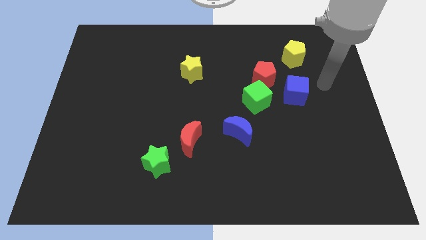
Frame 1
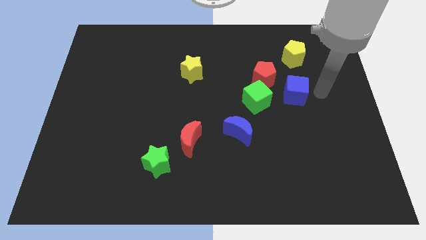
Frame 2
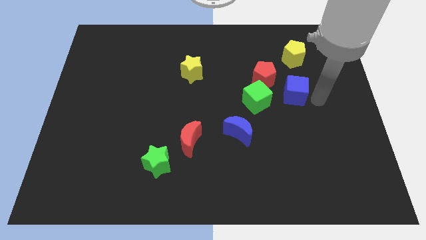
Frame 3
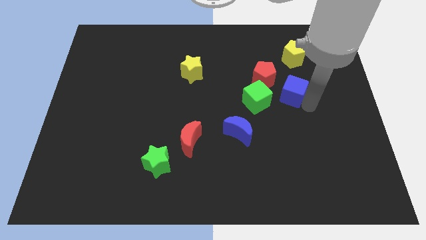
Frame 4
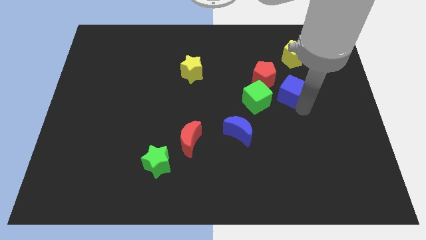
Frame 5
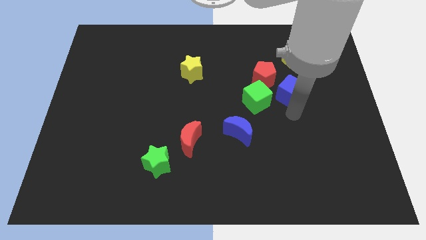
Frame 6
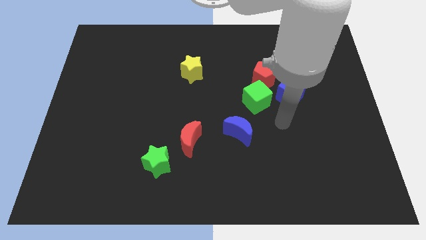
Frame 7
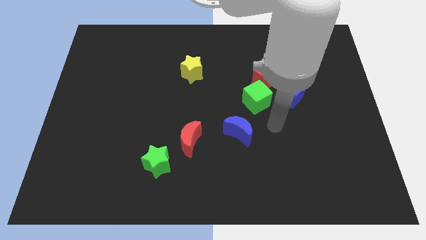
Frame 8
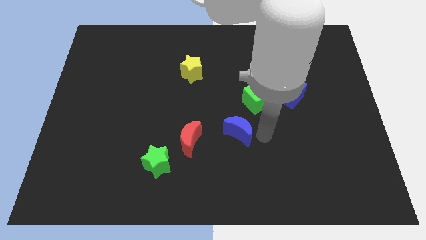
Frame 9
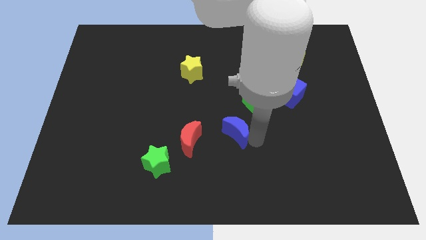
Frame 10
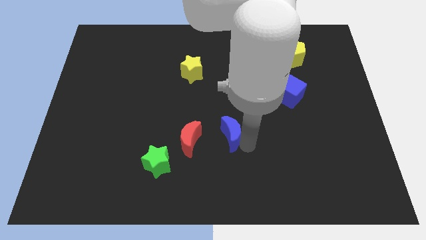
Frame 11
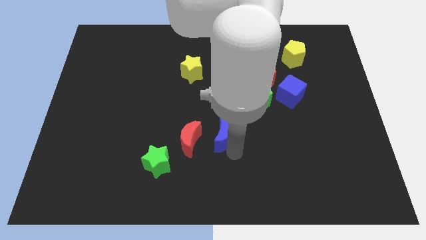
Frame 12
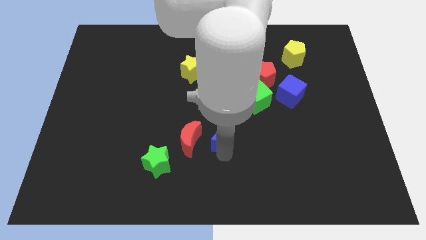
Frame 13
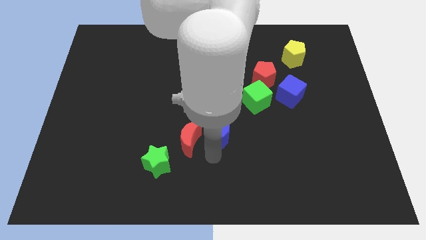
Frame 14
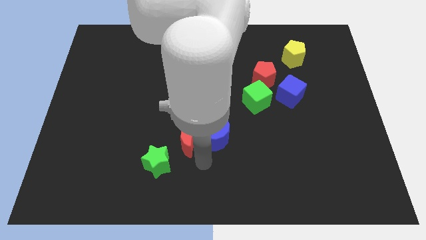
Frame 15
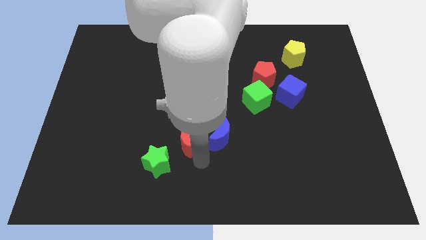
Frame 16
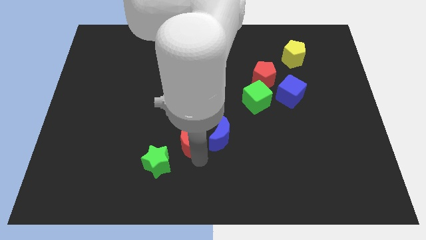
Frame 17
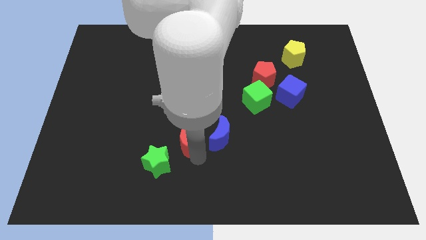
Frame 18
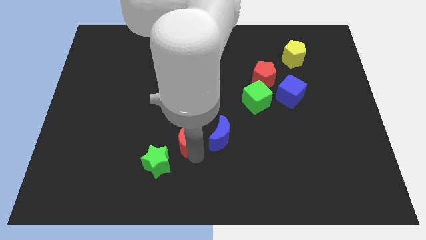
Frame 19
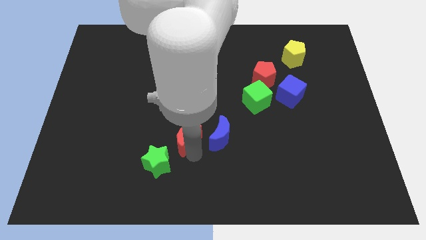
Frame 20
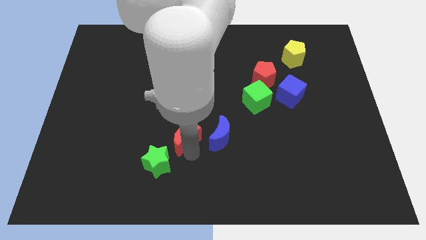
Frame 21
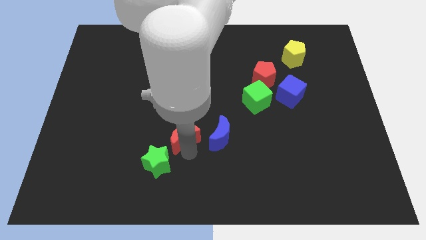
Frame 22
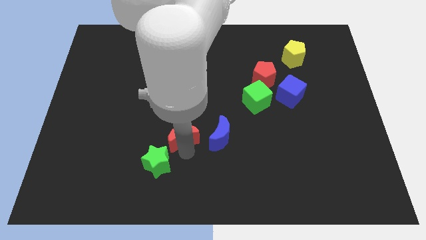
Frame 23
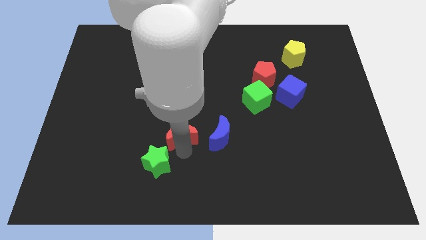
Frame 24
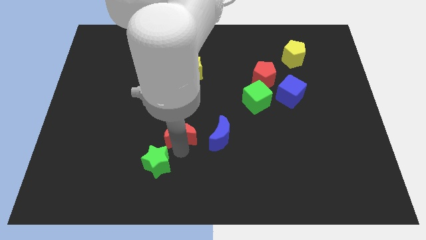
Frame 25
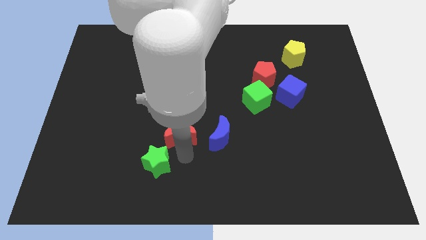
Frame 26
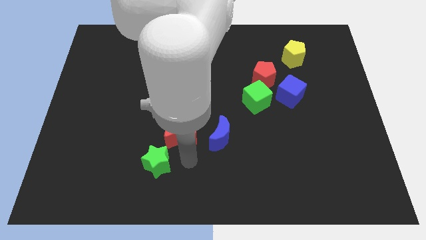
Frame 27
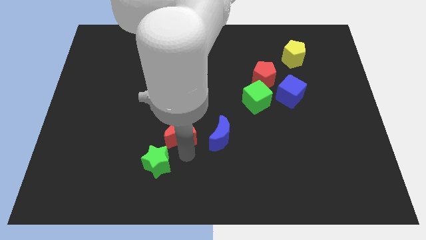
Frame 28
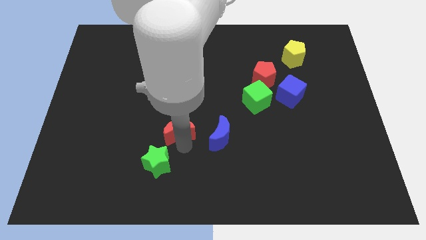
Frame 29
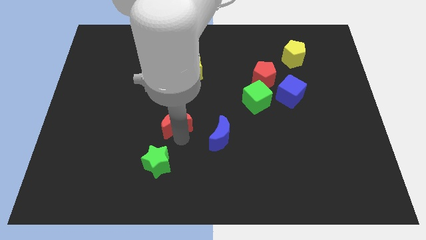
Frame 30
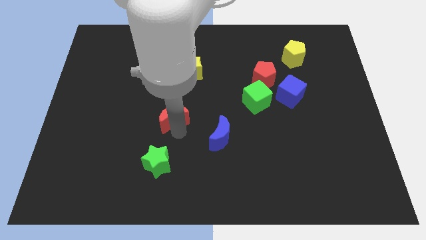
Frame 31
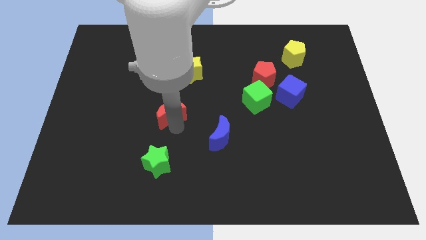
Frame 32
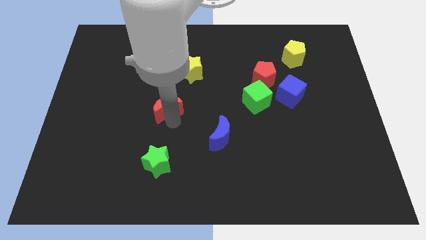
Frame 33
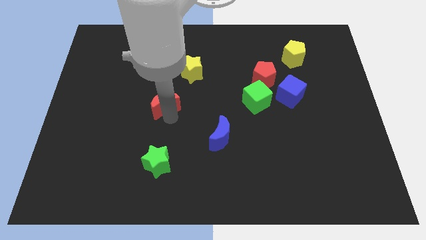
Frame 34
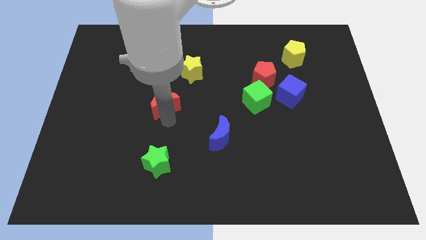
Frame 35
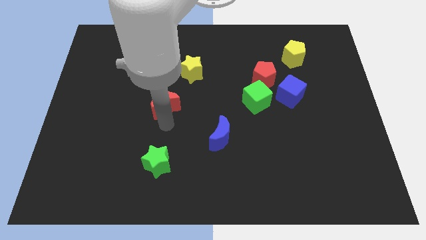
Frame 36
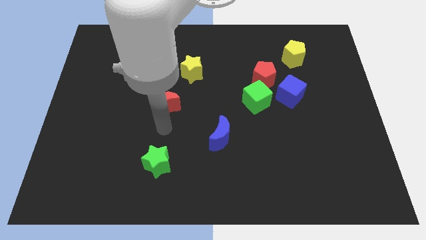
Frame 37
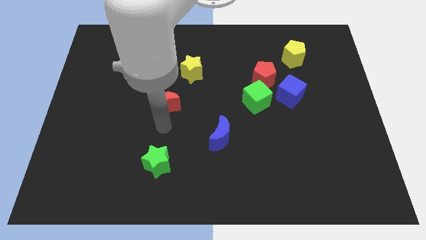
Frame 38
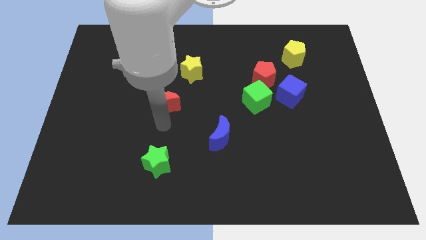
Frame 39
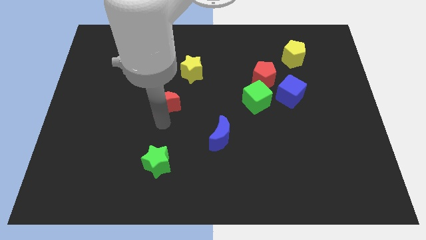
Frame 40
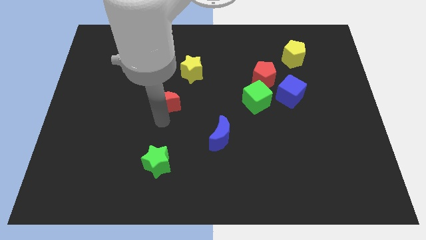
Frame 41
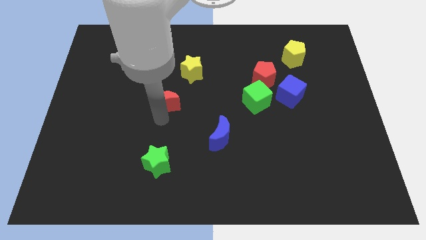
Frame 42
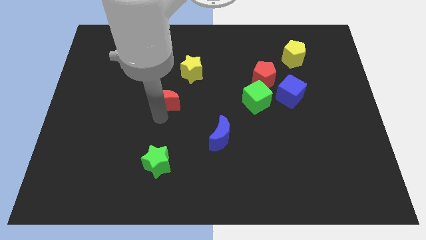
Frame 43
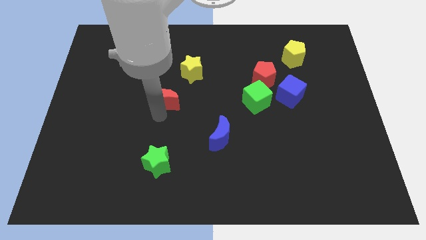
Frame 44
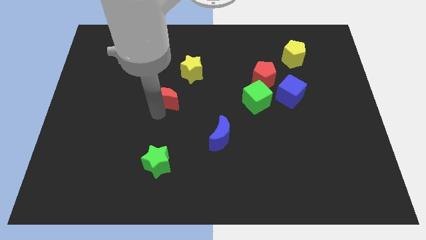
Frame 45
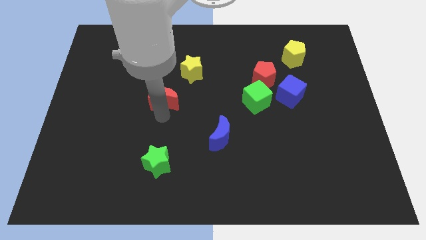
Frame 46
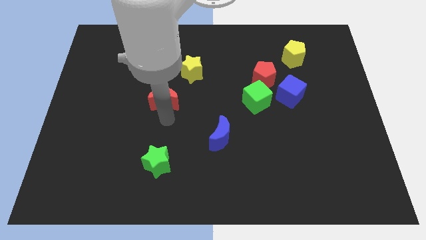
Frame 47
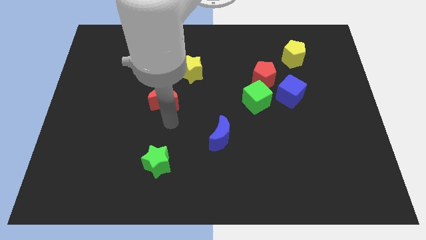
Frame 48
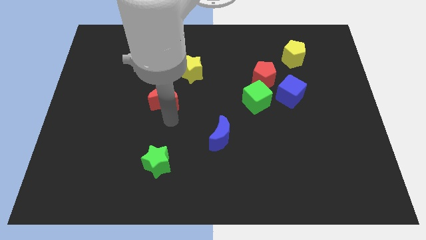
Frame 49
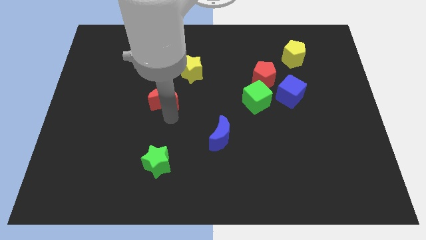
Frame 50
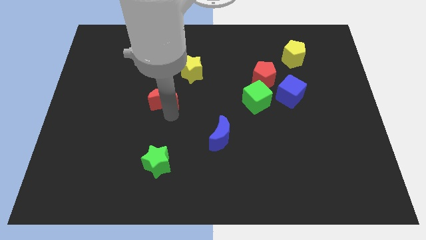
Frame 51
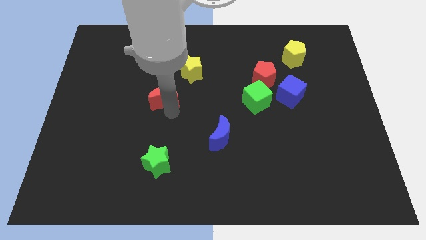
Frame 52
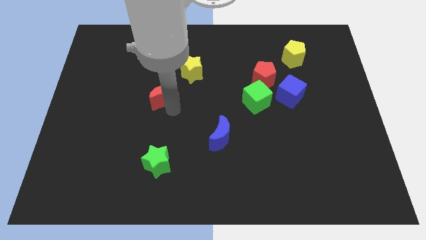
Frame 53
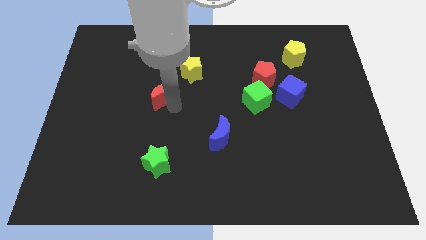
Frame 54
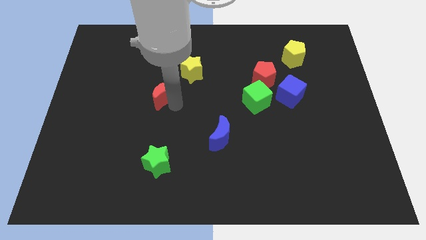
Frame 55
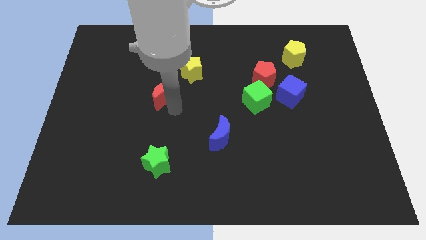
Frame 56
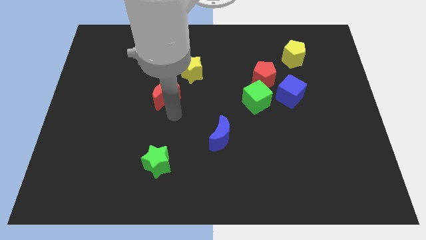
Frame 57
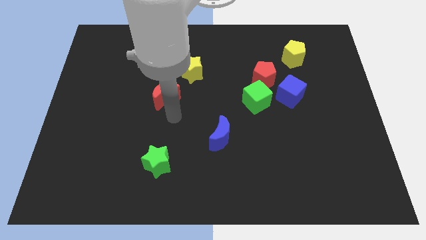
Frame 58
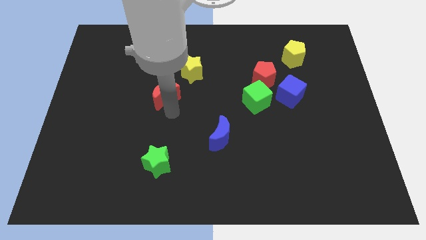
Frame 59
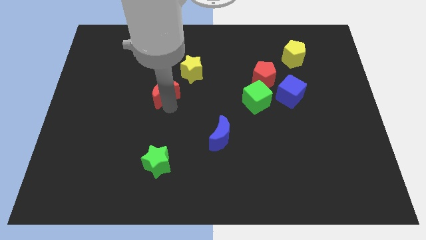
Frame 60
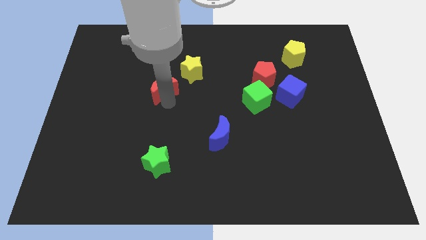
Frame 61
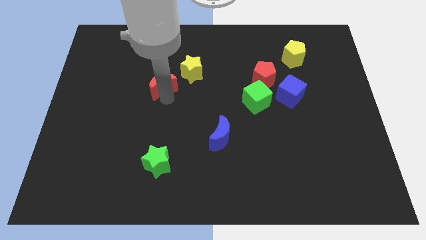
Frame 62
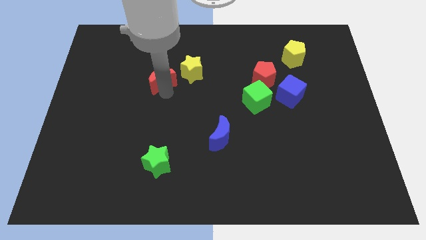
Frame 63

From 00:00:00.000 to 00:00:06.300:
put the red moon to the left side of the yellow star

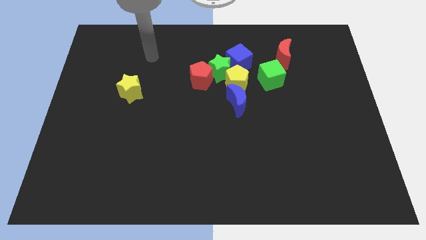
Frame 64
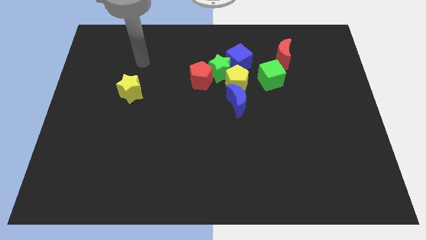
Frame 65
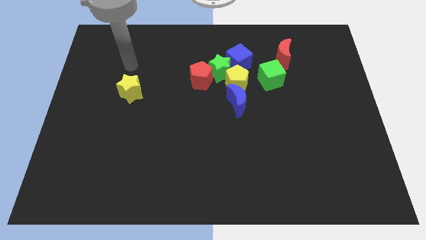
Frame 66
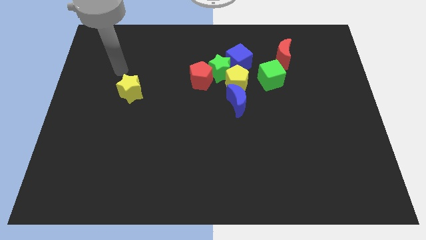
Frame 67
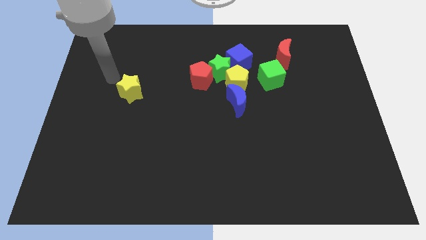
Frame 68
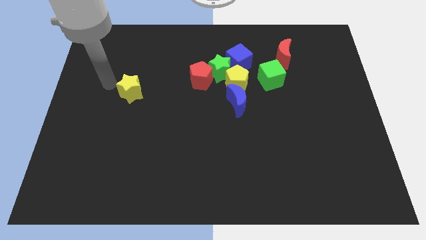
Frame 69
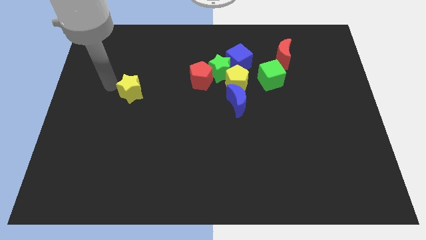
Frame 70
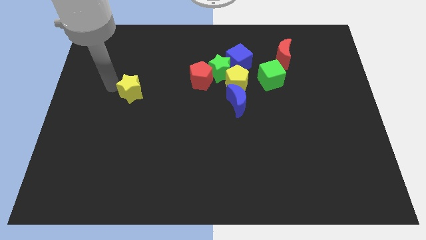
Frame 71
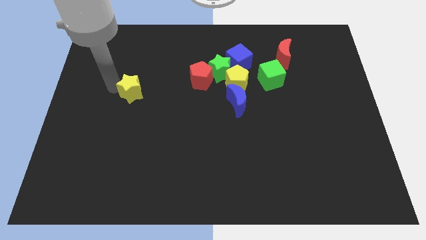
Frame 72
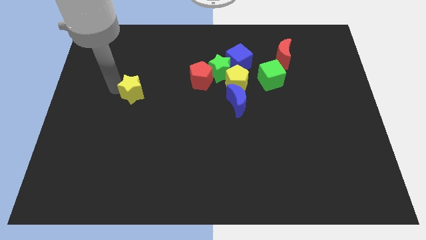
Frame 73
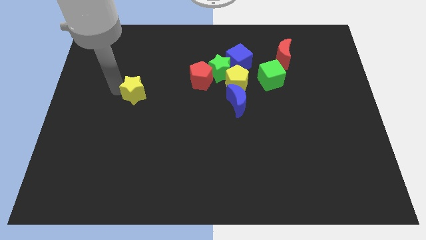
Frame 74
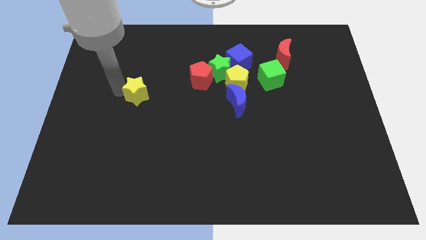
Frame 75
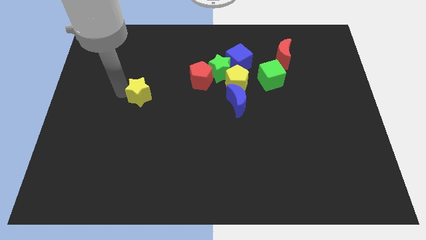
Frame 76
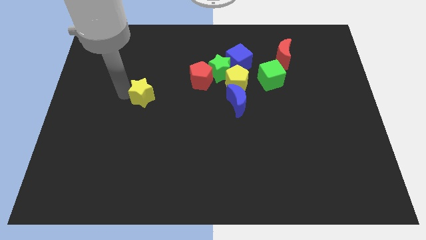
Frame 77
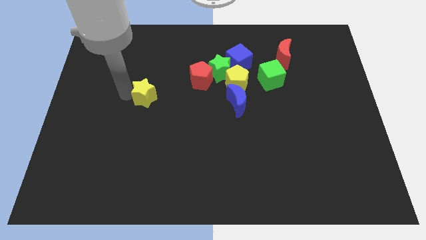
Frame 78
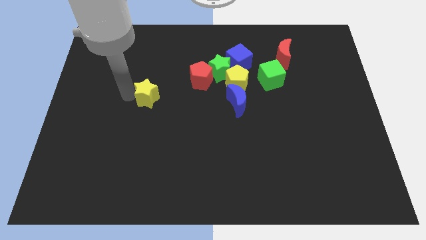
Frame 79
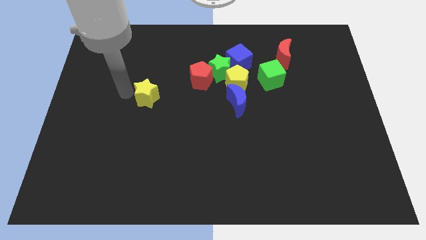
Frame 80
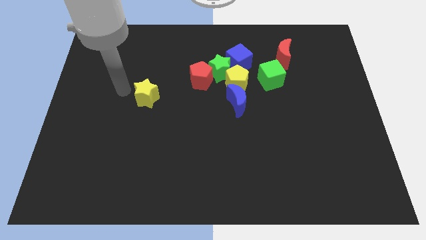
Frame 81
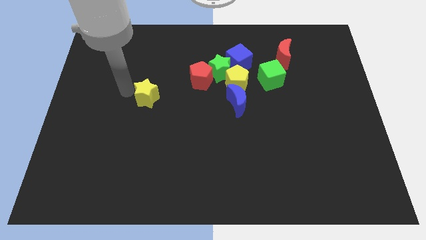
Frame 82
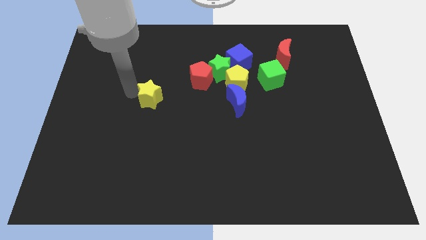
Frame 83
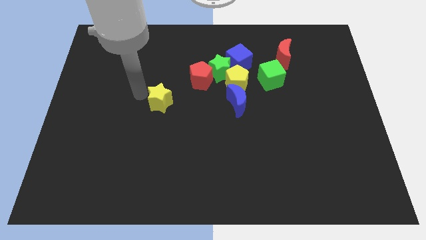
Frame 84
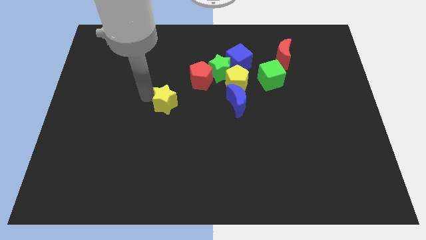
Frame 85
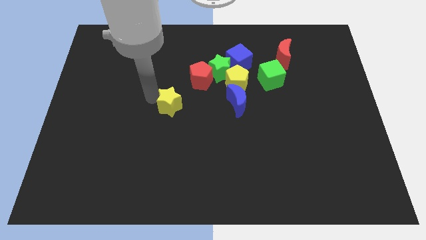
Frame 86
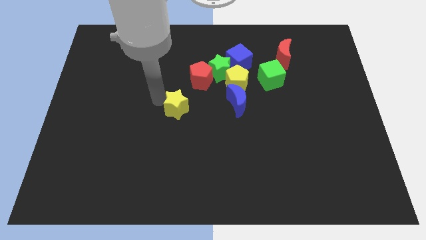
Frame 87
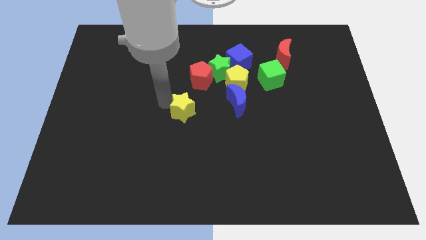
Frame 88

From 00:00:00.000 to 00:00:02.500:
slide the yellow star below the red pentagon
